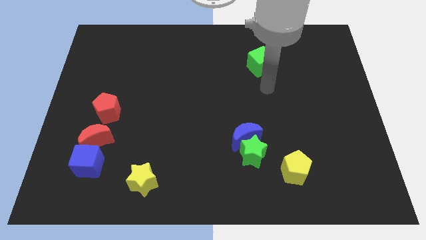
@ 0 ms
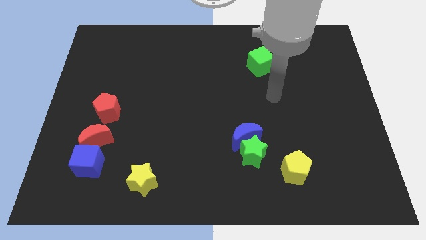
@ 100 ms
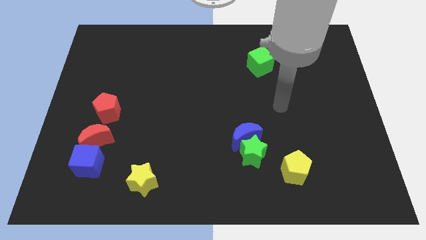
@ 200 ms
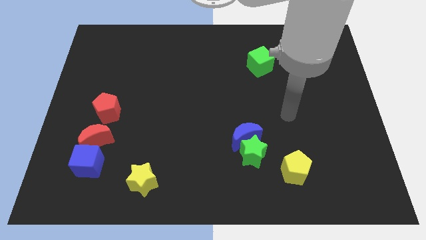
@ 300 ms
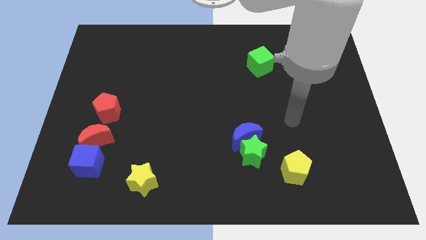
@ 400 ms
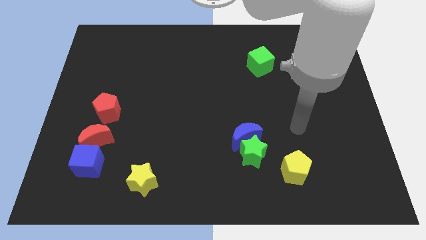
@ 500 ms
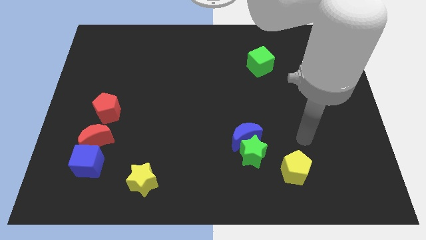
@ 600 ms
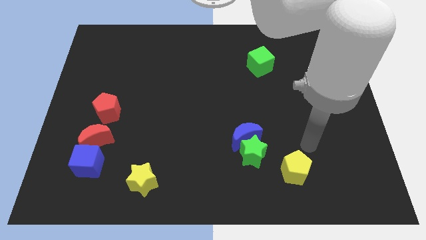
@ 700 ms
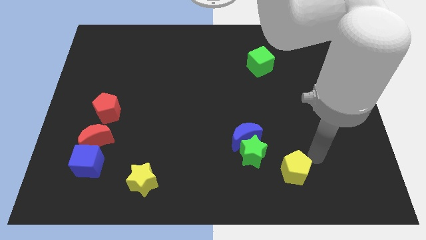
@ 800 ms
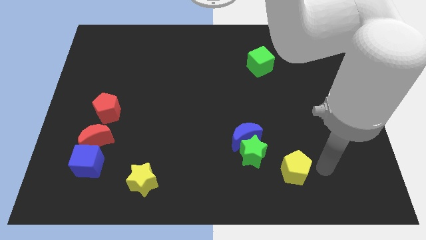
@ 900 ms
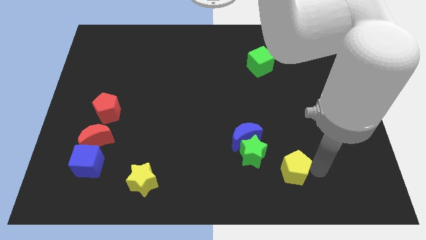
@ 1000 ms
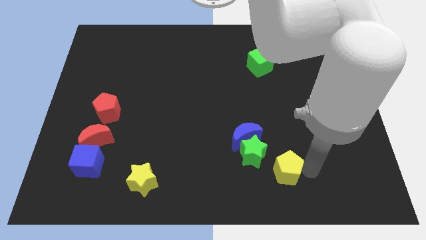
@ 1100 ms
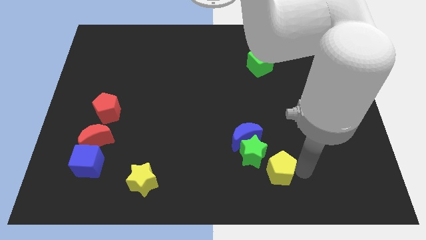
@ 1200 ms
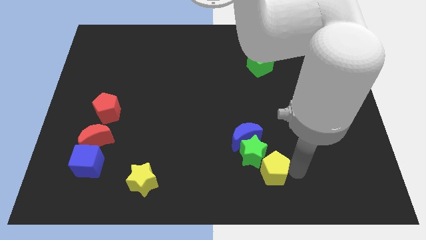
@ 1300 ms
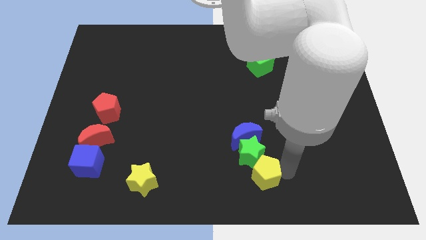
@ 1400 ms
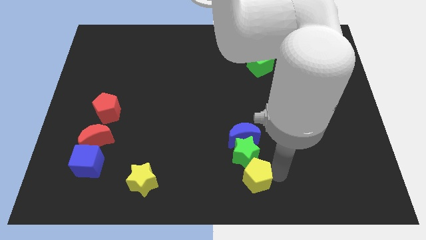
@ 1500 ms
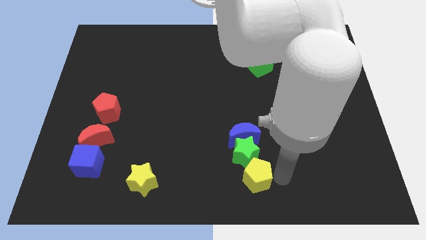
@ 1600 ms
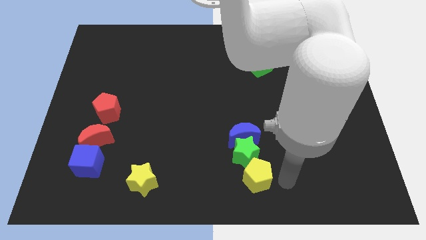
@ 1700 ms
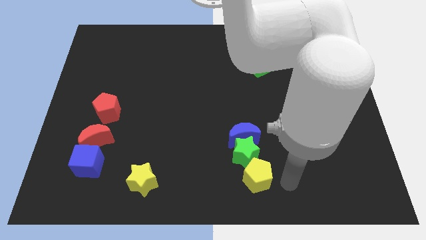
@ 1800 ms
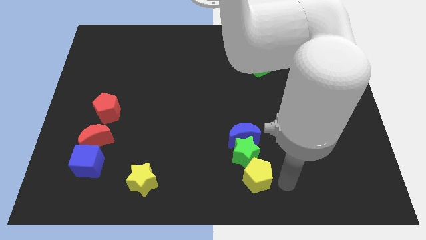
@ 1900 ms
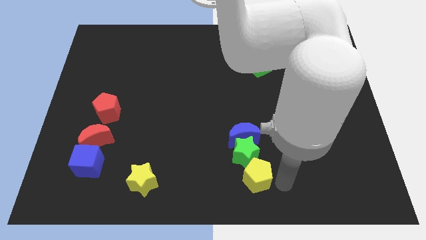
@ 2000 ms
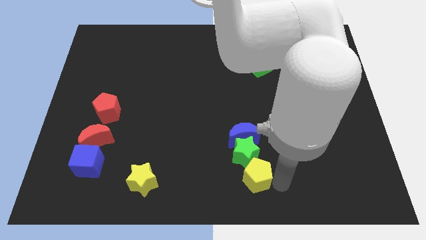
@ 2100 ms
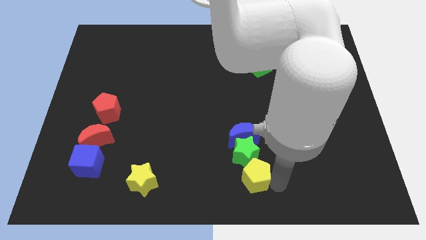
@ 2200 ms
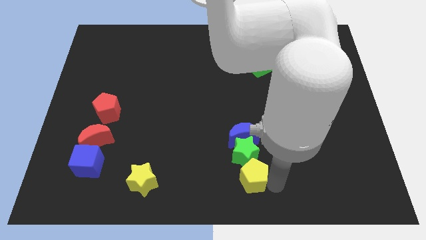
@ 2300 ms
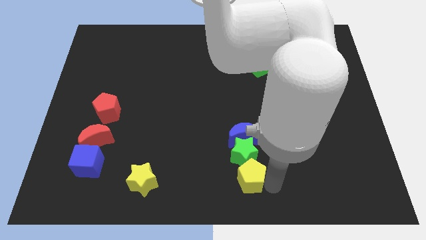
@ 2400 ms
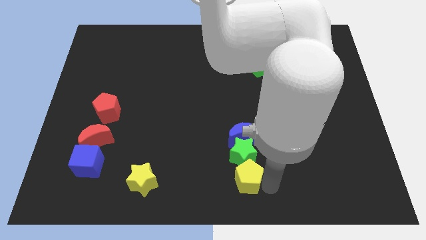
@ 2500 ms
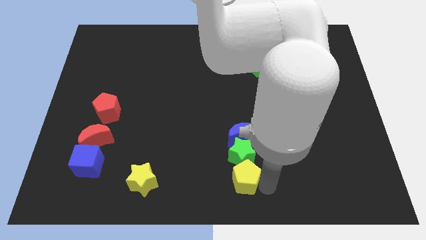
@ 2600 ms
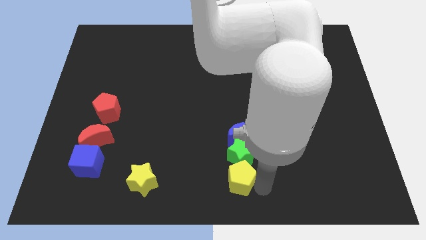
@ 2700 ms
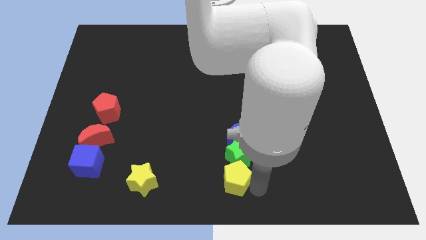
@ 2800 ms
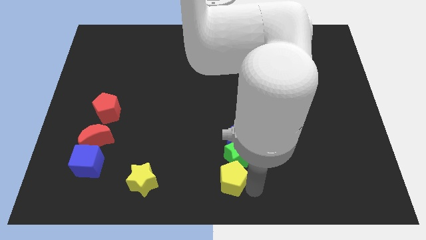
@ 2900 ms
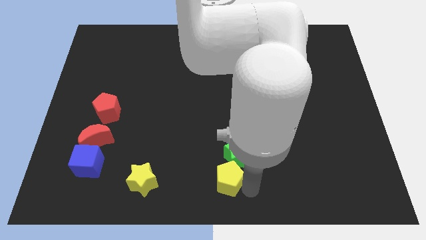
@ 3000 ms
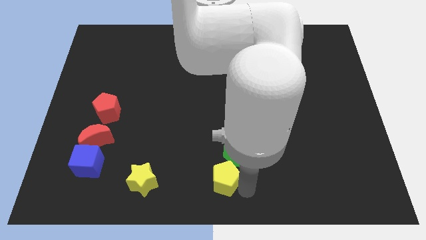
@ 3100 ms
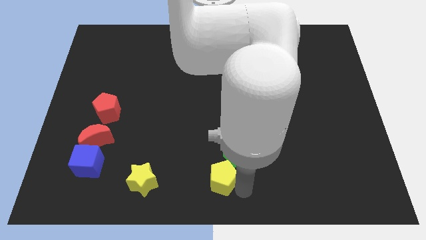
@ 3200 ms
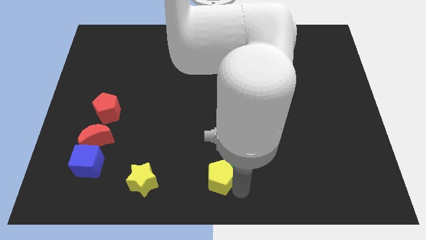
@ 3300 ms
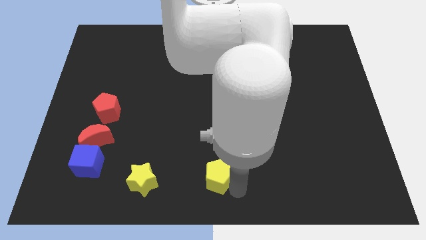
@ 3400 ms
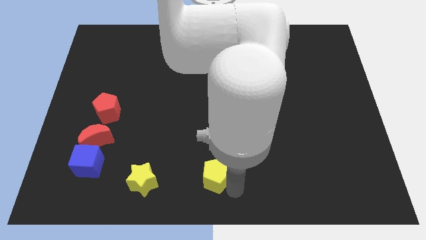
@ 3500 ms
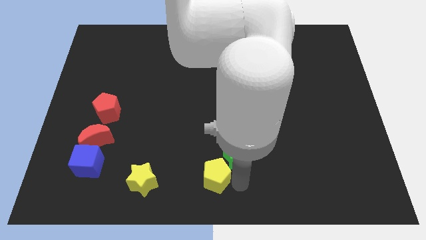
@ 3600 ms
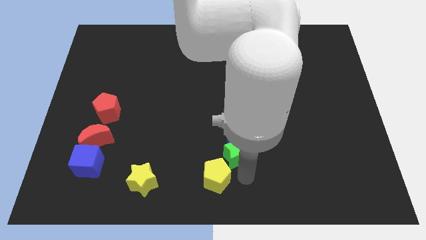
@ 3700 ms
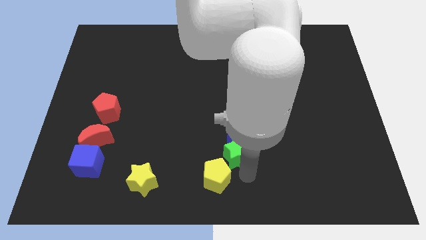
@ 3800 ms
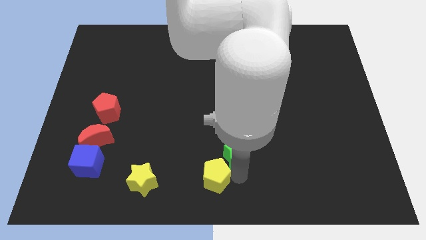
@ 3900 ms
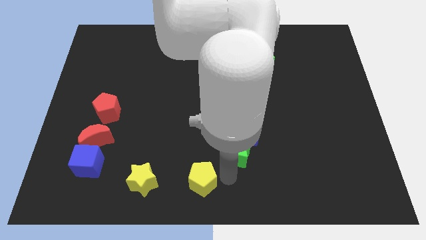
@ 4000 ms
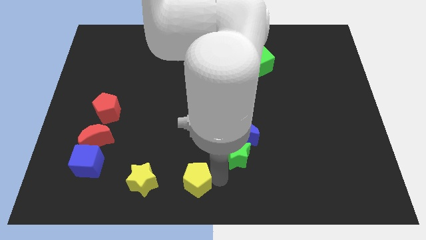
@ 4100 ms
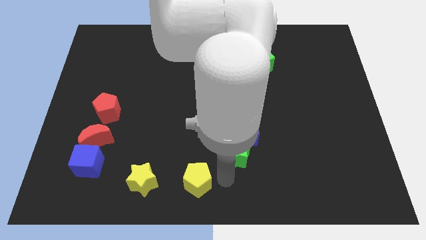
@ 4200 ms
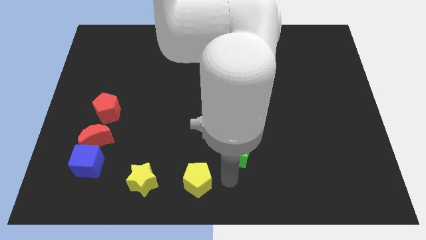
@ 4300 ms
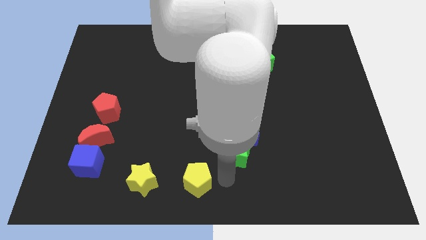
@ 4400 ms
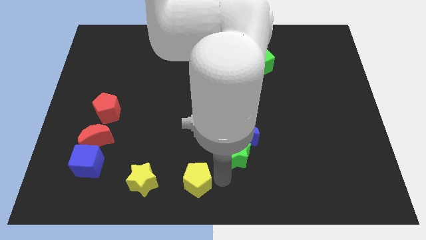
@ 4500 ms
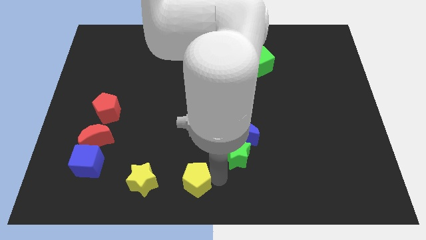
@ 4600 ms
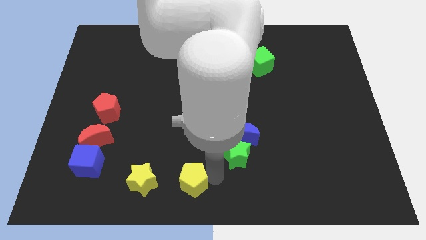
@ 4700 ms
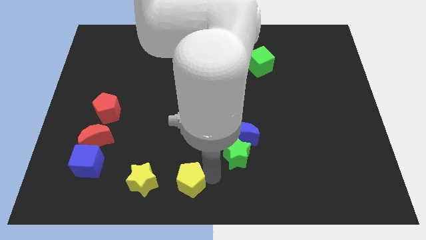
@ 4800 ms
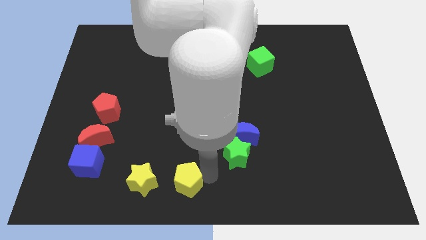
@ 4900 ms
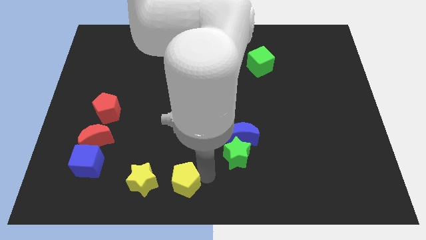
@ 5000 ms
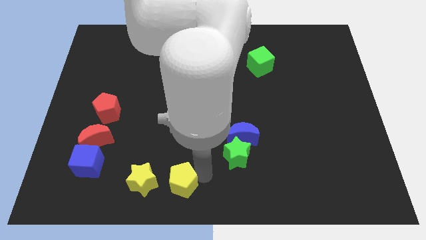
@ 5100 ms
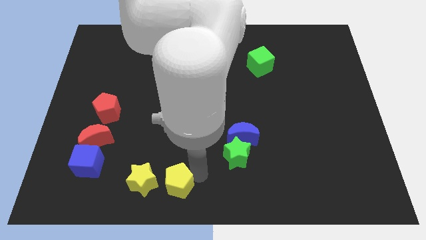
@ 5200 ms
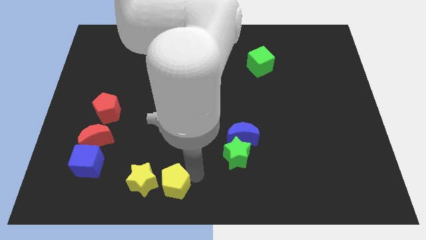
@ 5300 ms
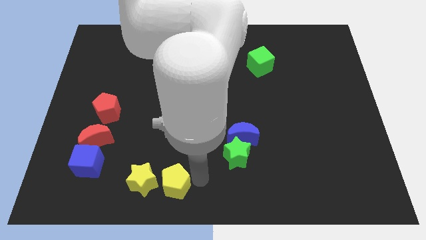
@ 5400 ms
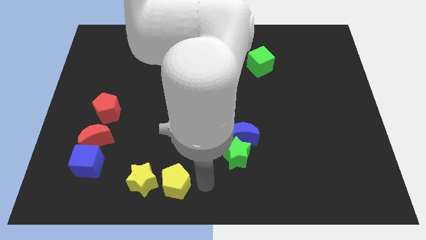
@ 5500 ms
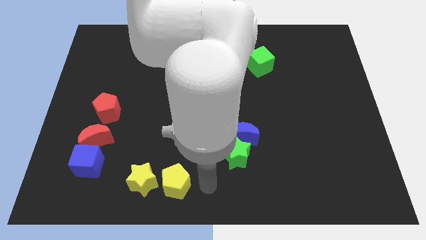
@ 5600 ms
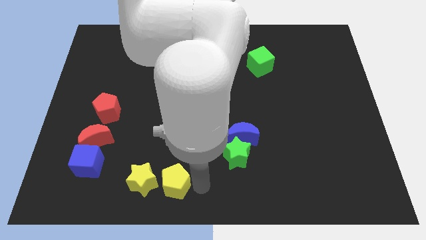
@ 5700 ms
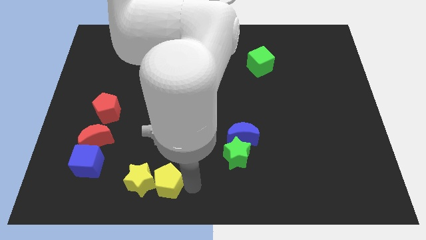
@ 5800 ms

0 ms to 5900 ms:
push the yellow pentagon close to the yellow star

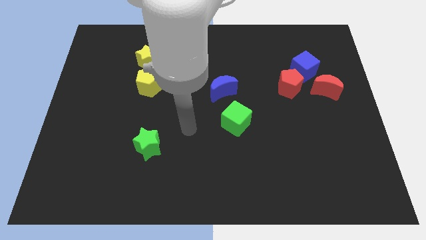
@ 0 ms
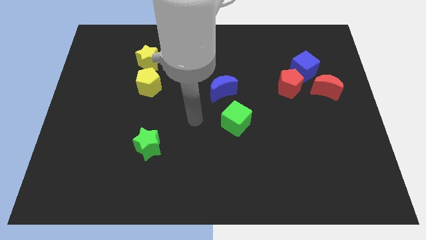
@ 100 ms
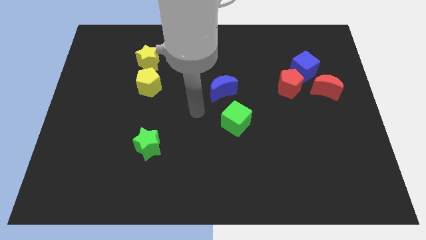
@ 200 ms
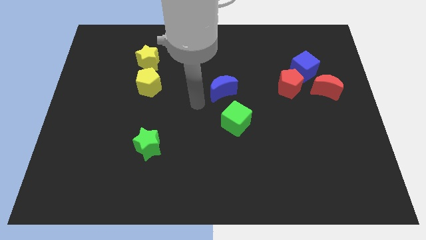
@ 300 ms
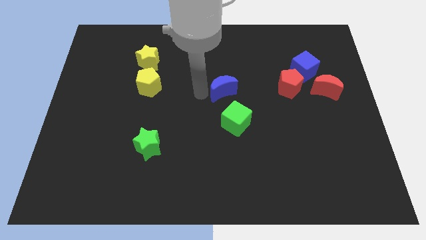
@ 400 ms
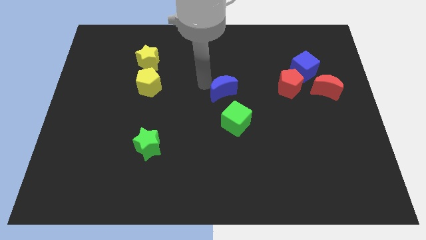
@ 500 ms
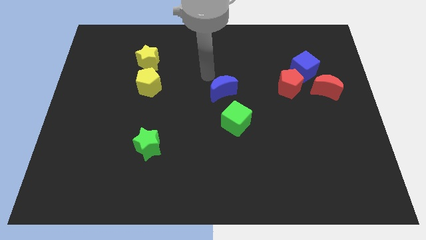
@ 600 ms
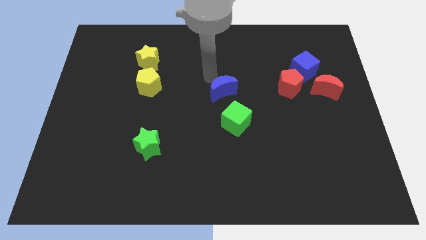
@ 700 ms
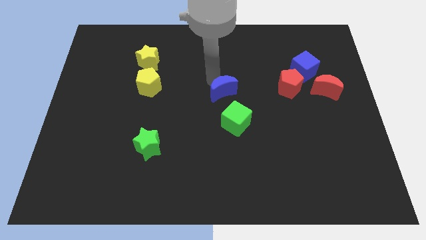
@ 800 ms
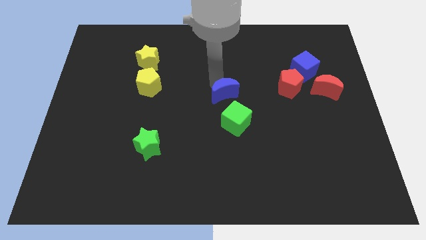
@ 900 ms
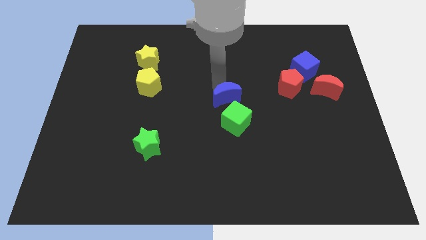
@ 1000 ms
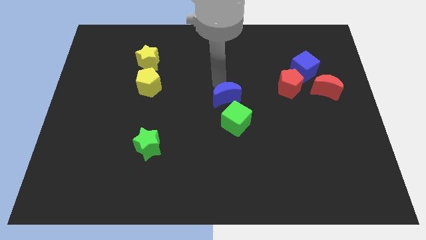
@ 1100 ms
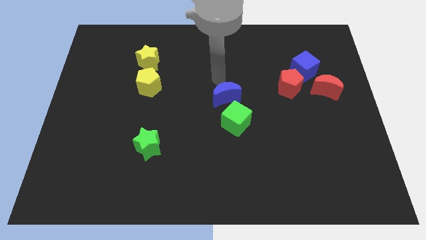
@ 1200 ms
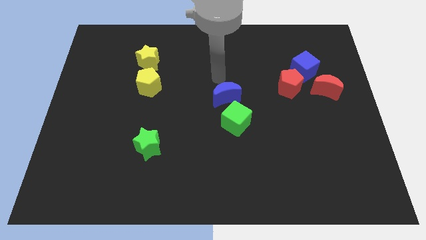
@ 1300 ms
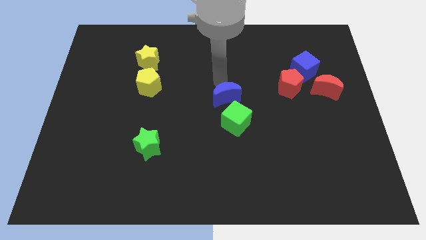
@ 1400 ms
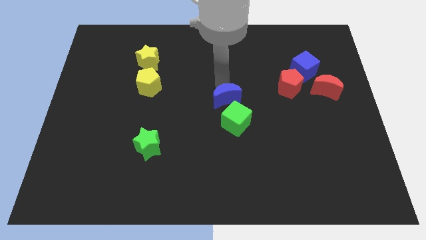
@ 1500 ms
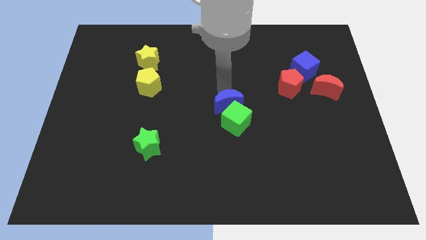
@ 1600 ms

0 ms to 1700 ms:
slide the blue moon towards the green cube
